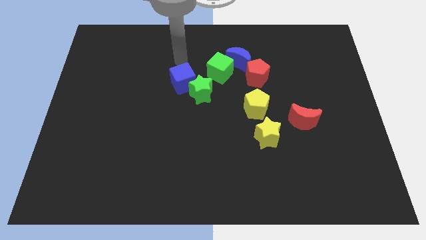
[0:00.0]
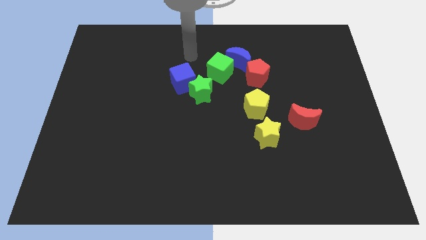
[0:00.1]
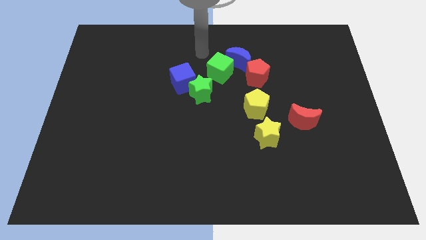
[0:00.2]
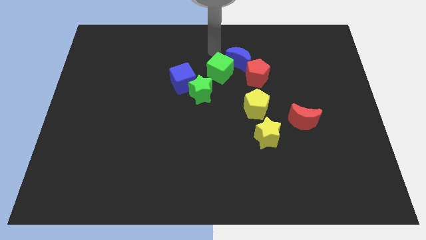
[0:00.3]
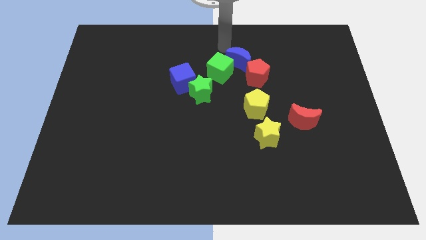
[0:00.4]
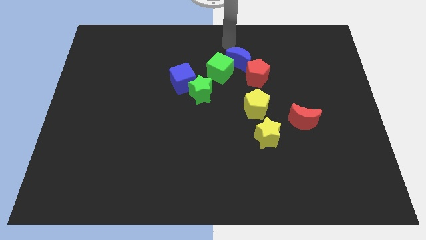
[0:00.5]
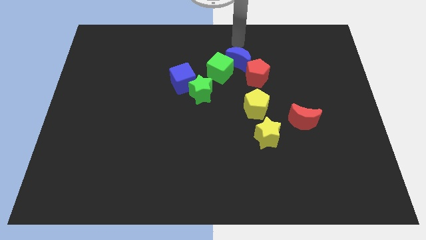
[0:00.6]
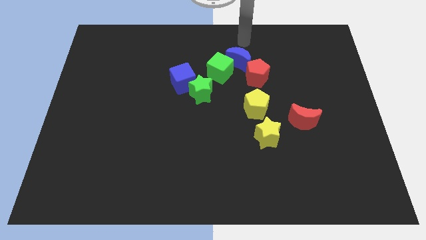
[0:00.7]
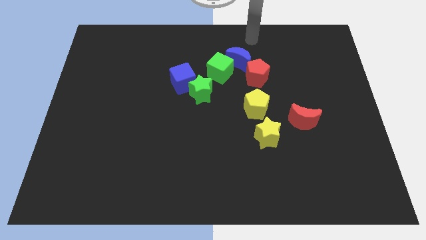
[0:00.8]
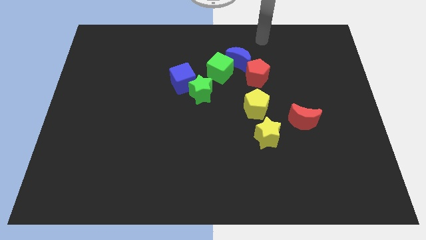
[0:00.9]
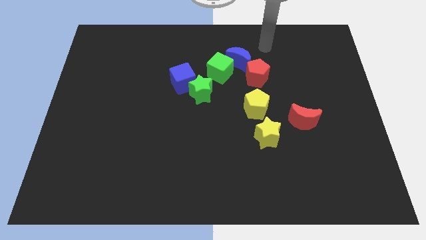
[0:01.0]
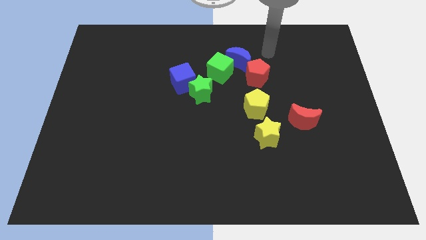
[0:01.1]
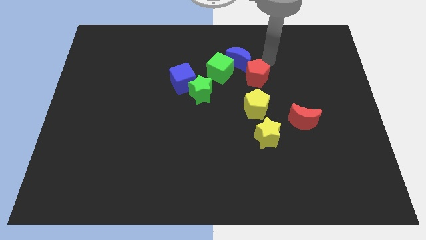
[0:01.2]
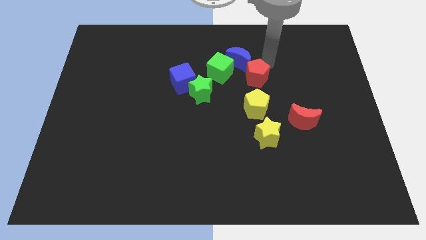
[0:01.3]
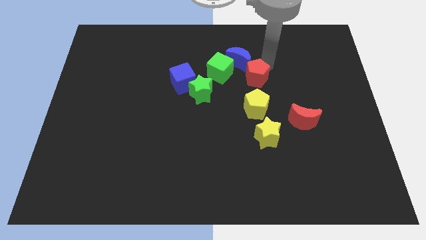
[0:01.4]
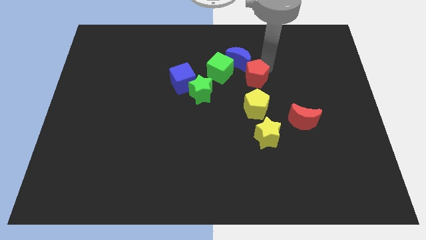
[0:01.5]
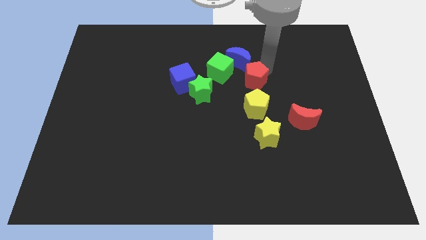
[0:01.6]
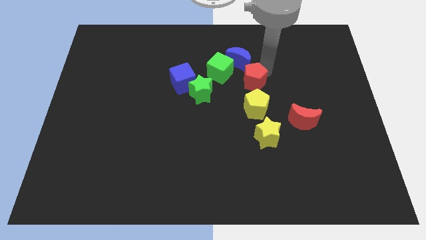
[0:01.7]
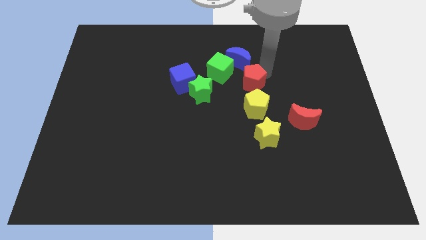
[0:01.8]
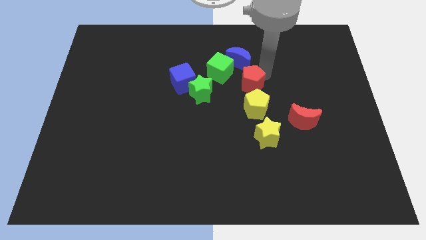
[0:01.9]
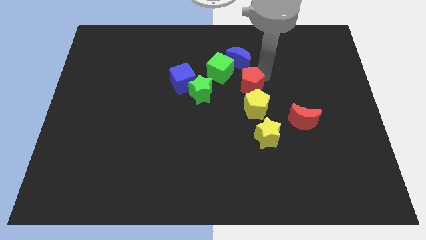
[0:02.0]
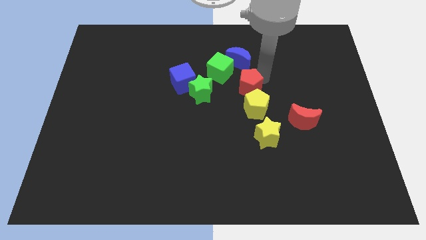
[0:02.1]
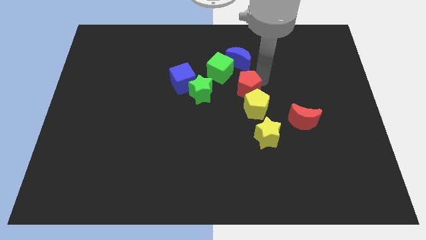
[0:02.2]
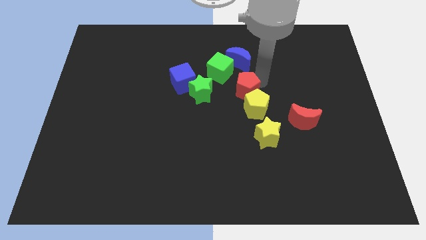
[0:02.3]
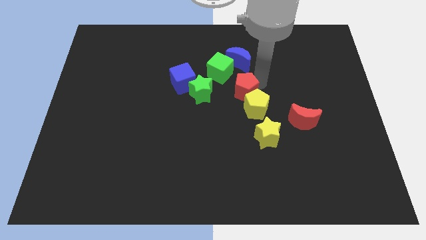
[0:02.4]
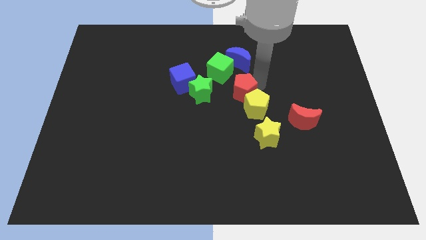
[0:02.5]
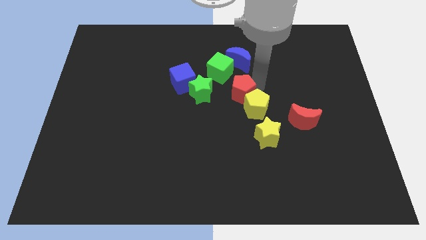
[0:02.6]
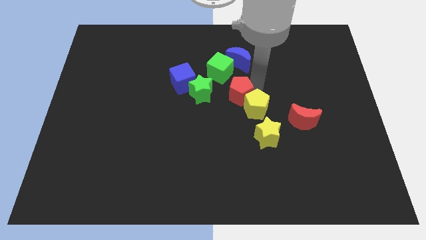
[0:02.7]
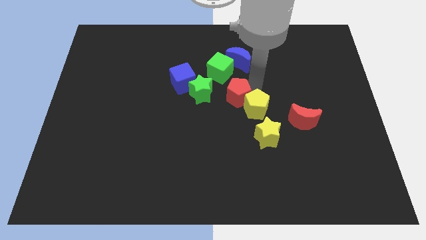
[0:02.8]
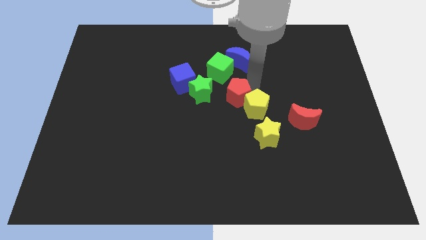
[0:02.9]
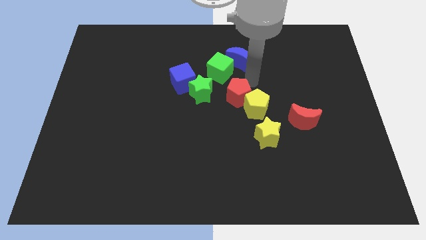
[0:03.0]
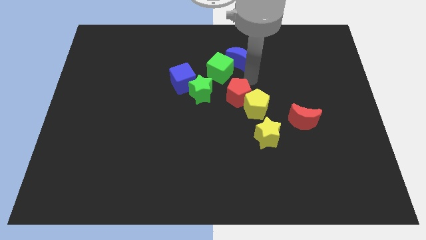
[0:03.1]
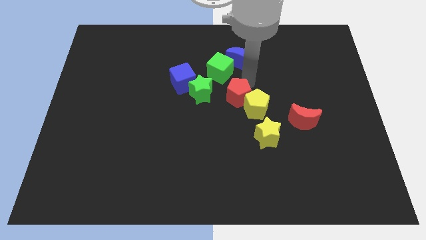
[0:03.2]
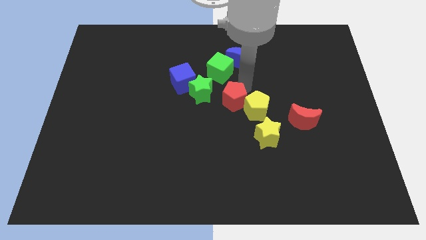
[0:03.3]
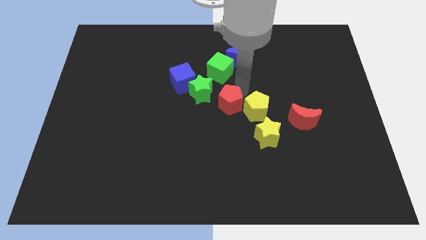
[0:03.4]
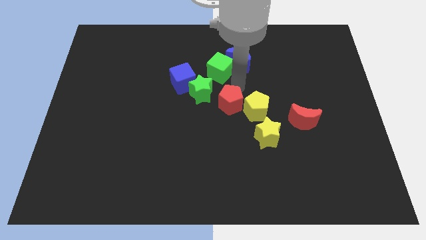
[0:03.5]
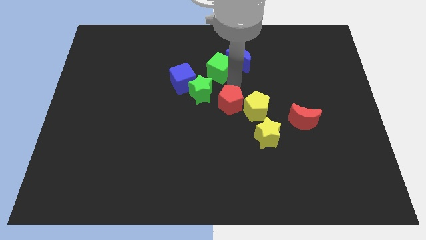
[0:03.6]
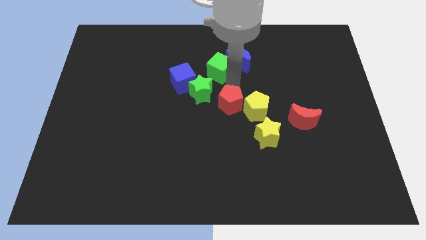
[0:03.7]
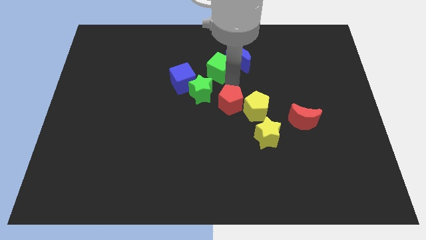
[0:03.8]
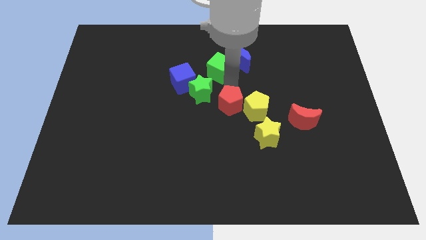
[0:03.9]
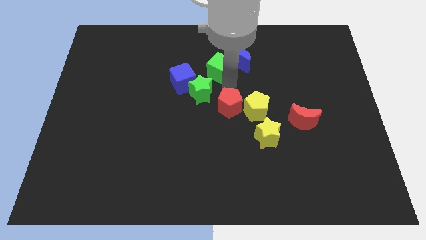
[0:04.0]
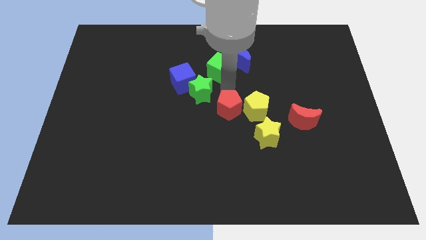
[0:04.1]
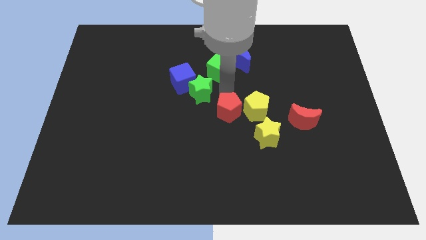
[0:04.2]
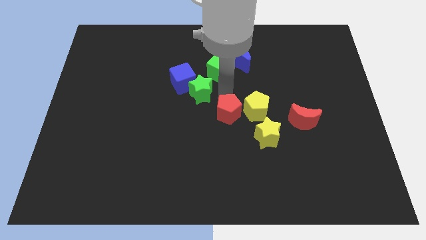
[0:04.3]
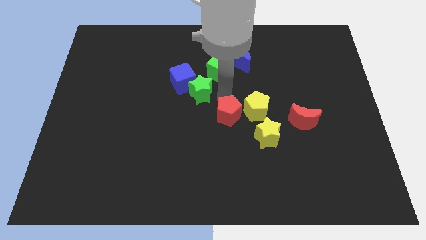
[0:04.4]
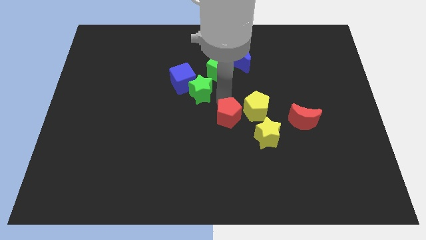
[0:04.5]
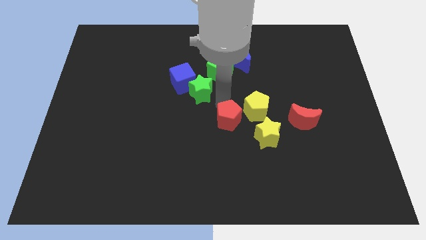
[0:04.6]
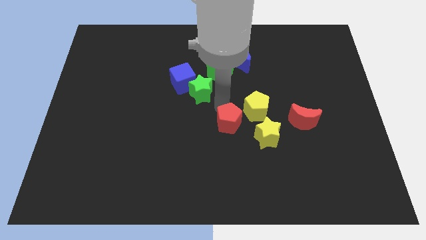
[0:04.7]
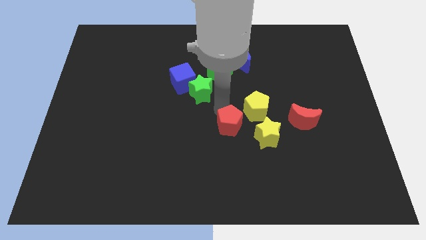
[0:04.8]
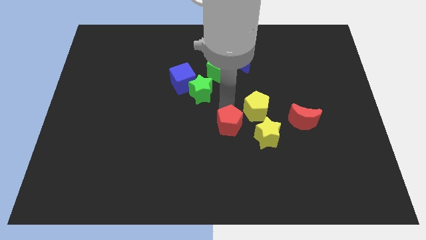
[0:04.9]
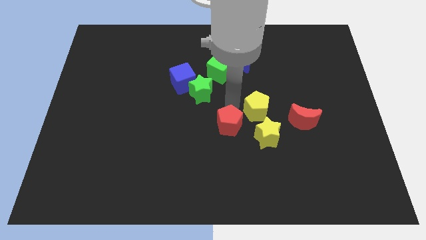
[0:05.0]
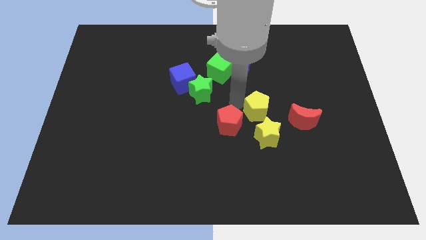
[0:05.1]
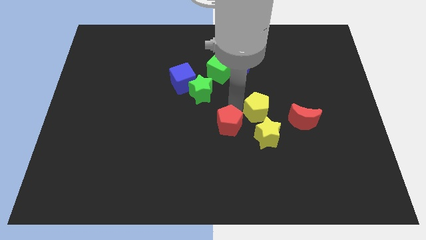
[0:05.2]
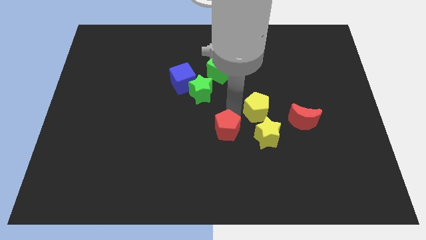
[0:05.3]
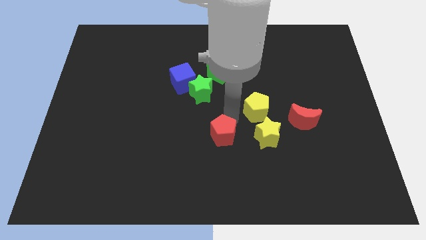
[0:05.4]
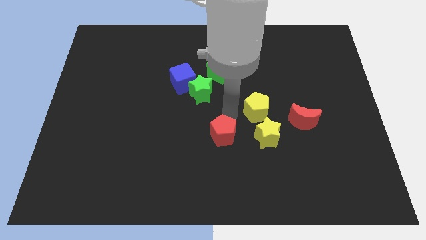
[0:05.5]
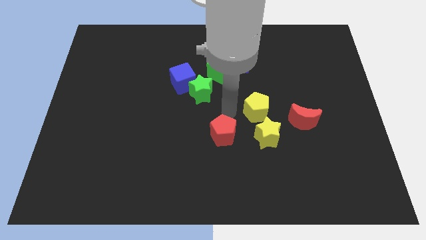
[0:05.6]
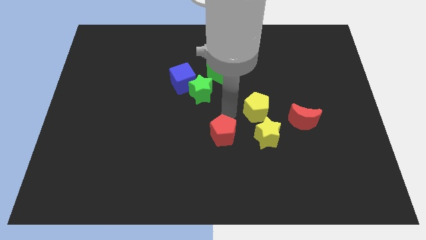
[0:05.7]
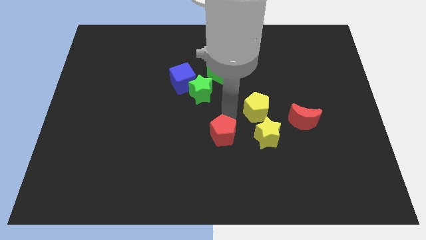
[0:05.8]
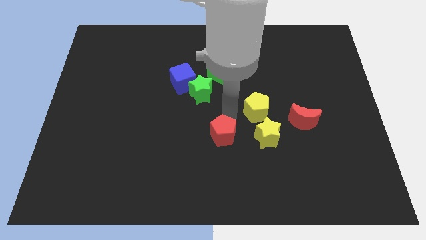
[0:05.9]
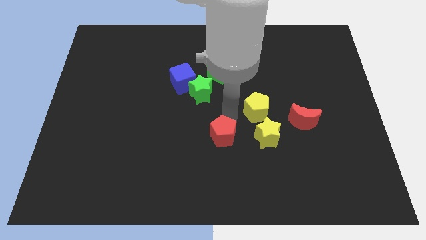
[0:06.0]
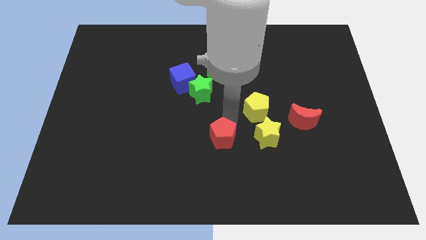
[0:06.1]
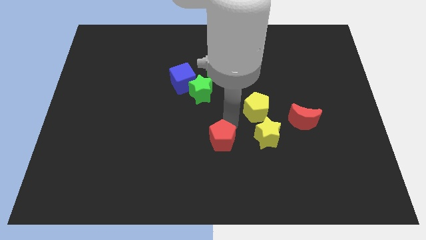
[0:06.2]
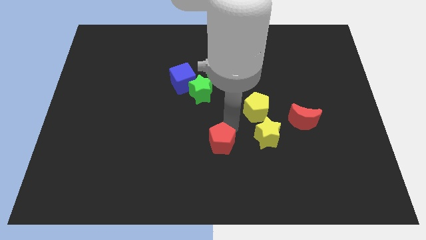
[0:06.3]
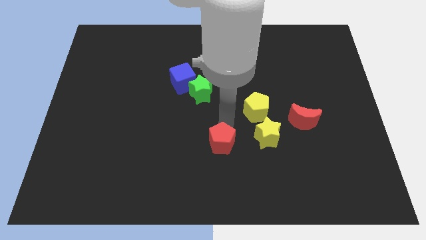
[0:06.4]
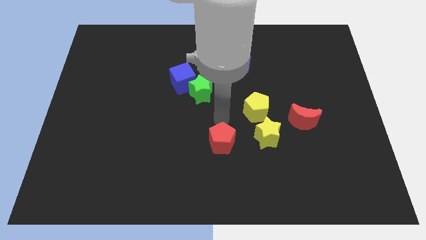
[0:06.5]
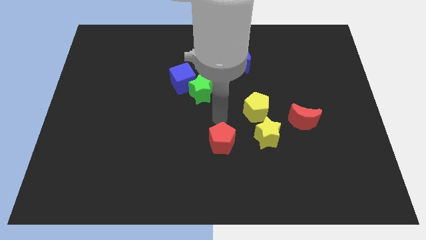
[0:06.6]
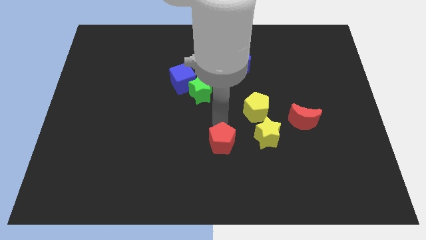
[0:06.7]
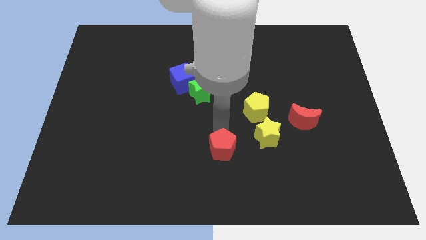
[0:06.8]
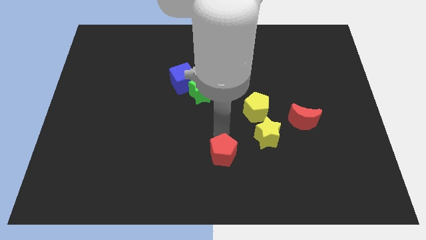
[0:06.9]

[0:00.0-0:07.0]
slide the red pentagon to the bottom

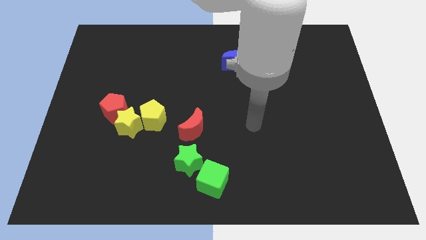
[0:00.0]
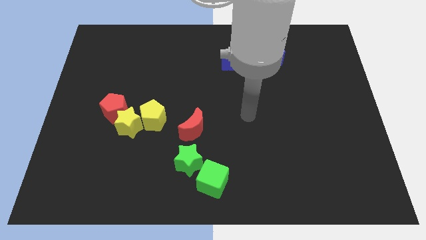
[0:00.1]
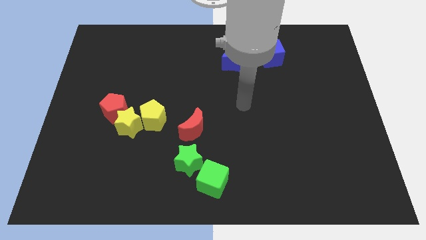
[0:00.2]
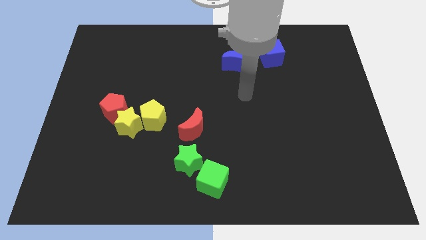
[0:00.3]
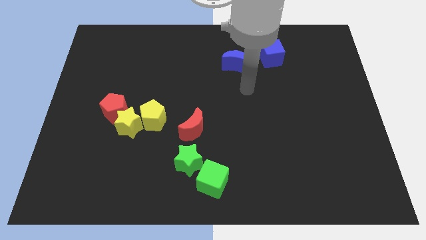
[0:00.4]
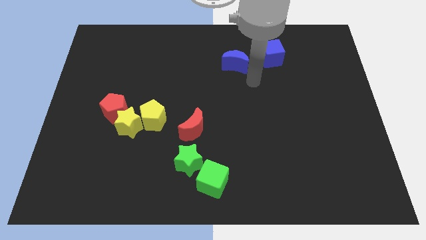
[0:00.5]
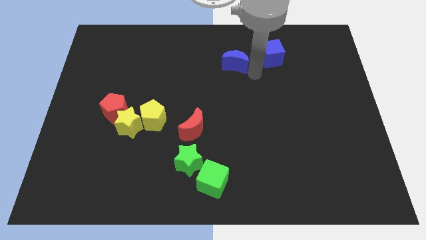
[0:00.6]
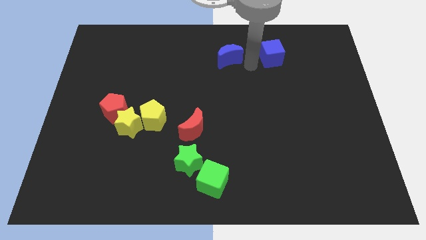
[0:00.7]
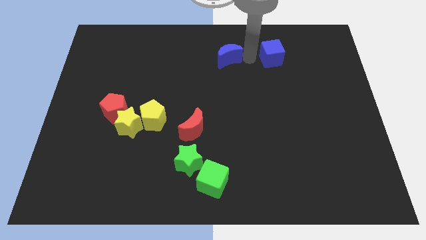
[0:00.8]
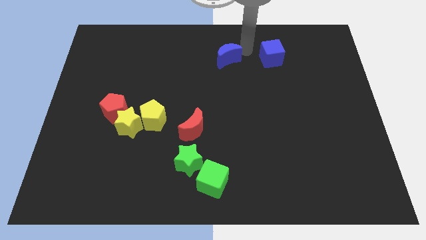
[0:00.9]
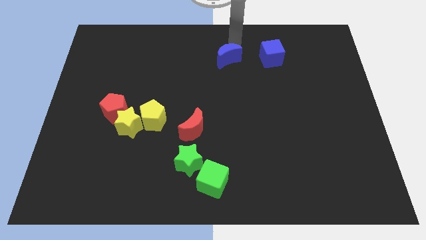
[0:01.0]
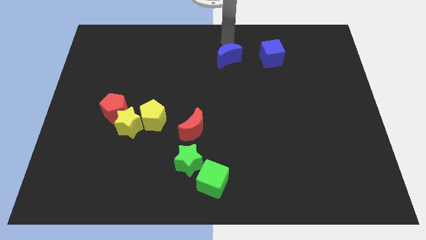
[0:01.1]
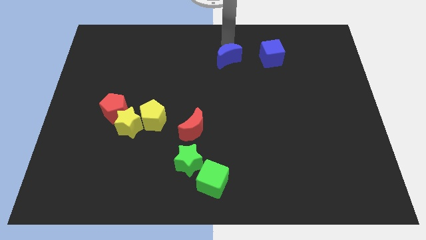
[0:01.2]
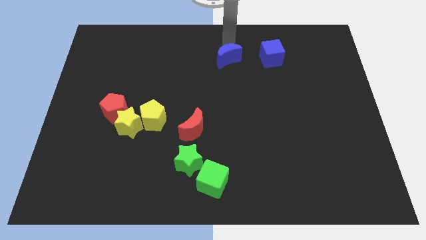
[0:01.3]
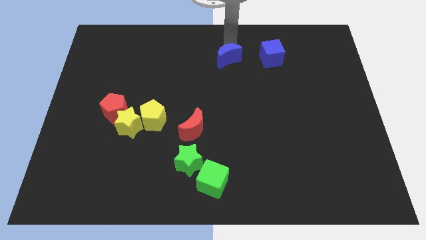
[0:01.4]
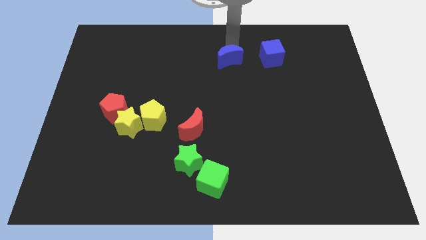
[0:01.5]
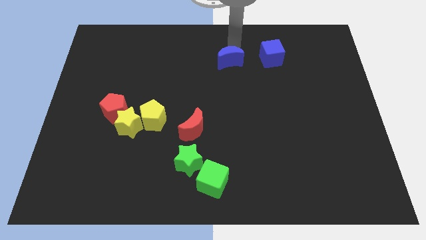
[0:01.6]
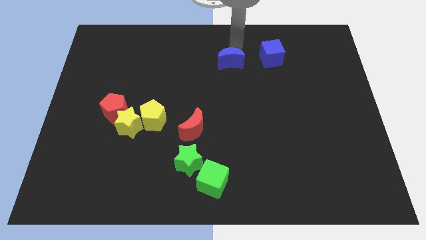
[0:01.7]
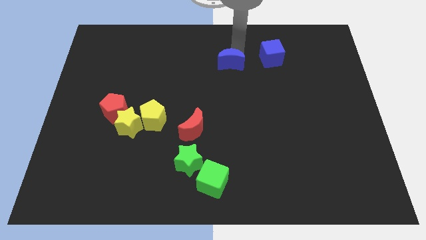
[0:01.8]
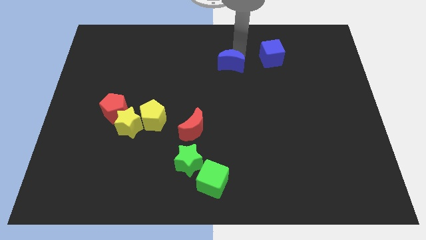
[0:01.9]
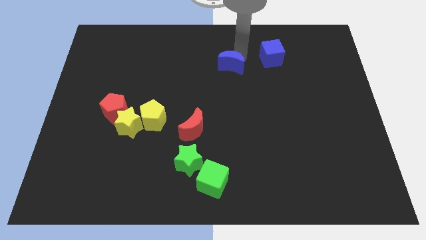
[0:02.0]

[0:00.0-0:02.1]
slide the blue moon to the center
